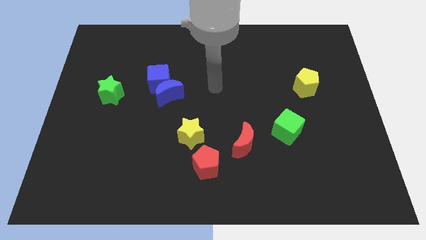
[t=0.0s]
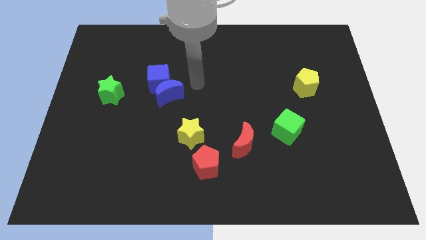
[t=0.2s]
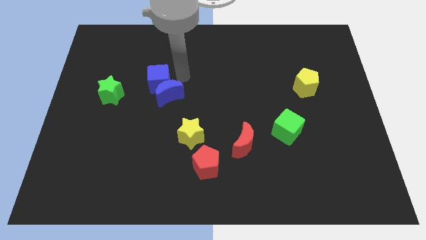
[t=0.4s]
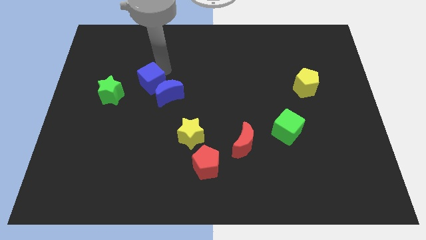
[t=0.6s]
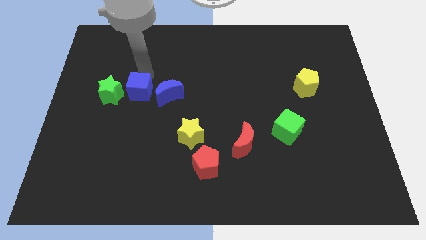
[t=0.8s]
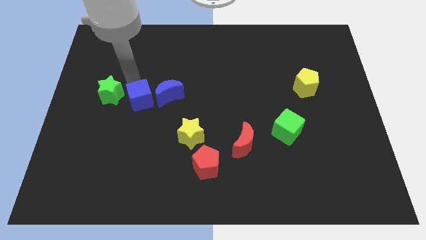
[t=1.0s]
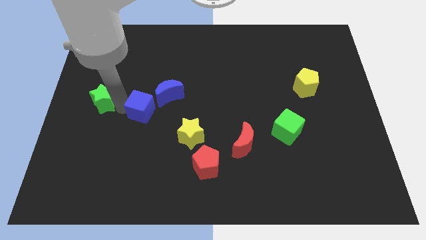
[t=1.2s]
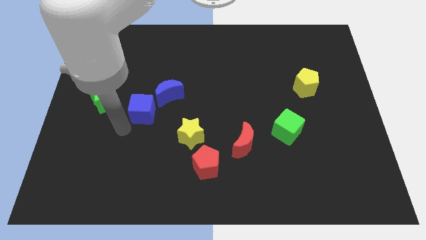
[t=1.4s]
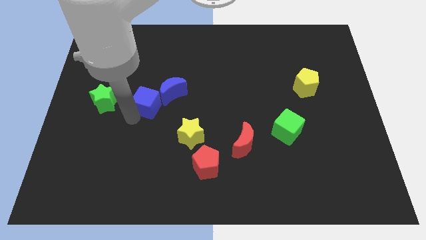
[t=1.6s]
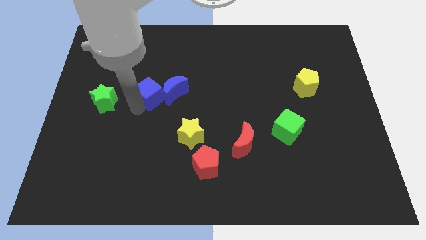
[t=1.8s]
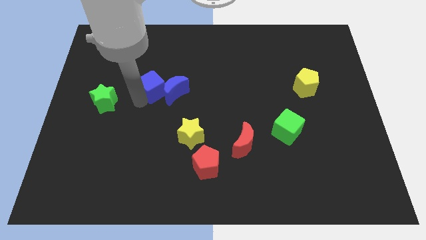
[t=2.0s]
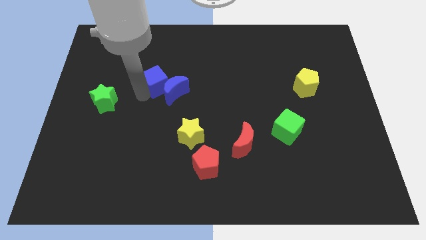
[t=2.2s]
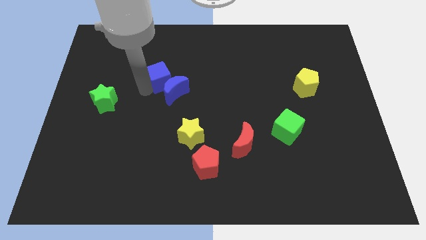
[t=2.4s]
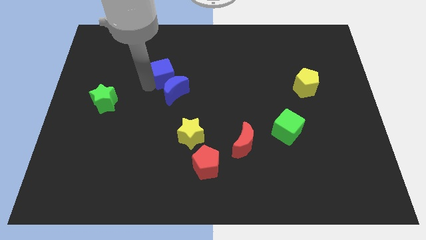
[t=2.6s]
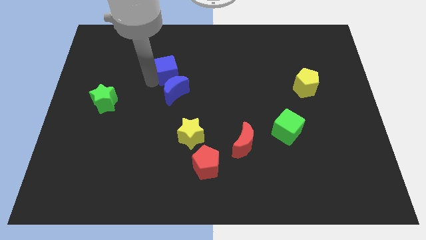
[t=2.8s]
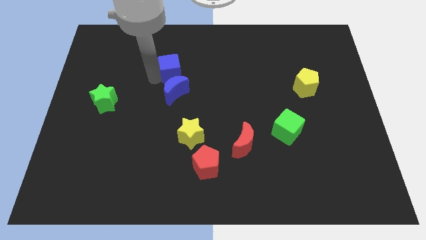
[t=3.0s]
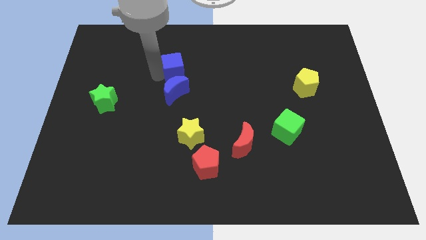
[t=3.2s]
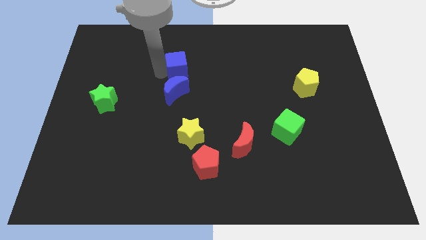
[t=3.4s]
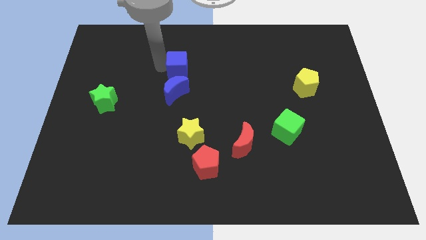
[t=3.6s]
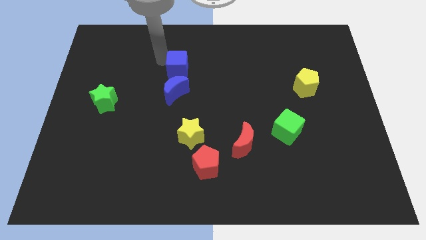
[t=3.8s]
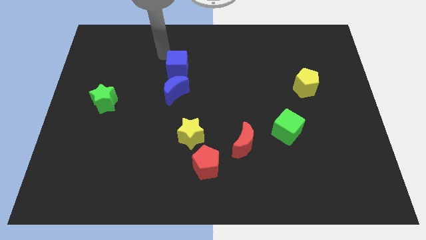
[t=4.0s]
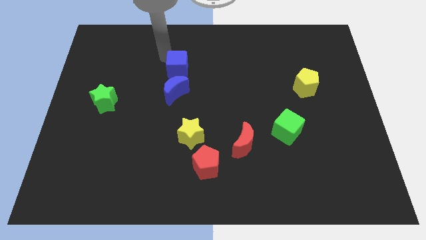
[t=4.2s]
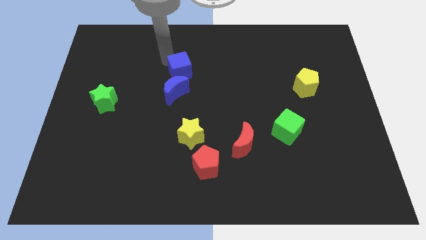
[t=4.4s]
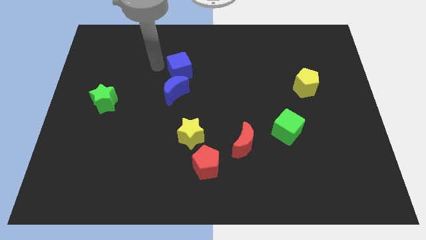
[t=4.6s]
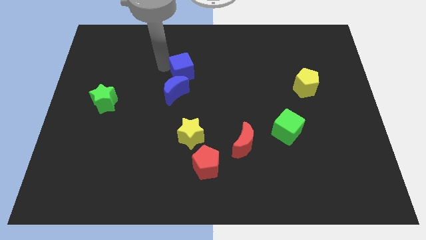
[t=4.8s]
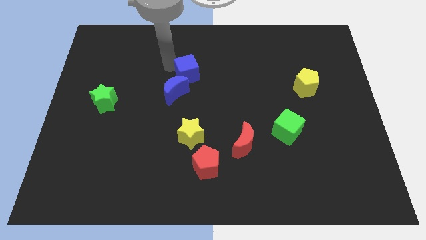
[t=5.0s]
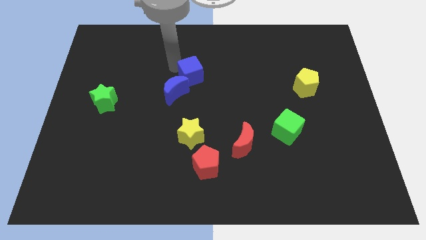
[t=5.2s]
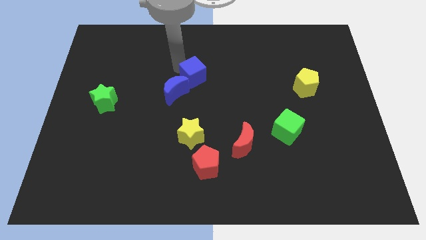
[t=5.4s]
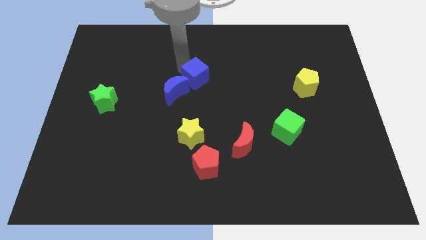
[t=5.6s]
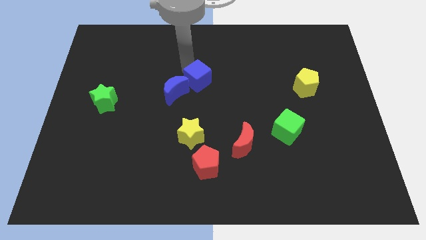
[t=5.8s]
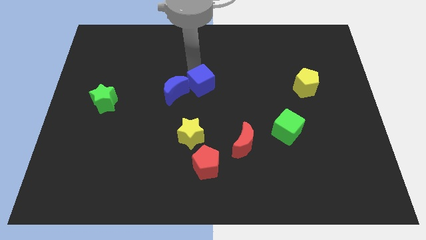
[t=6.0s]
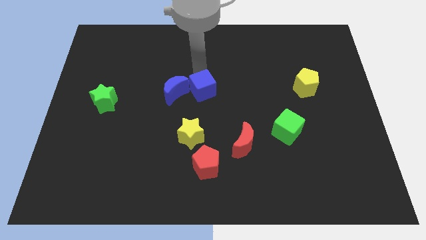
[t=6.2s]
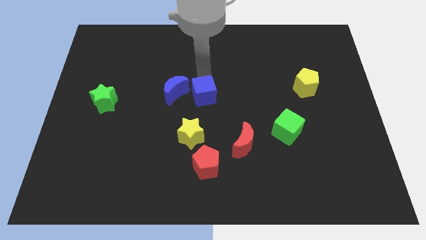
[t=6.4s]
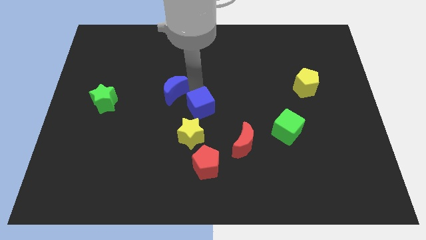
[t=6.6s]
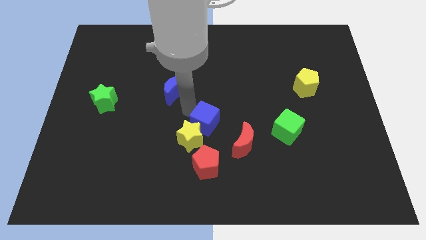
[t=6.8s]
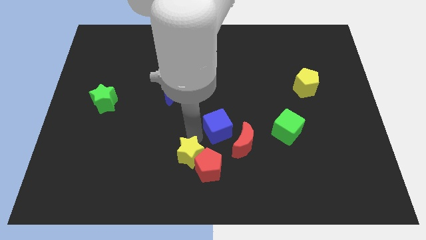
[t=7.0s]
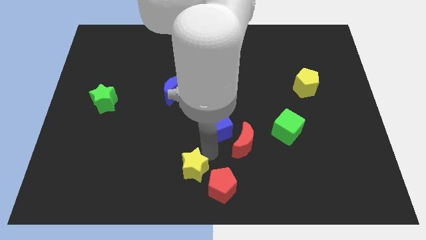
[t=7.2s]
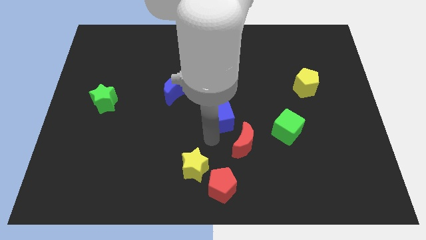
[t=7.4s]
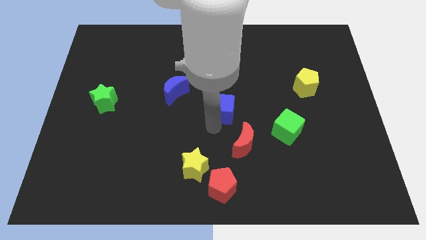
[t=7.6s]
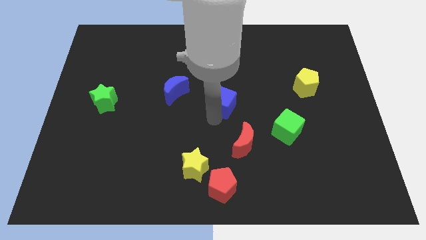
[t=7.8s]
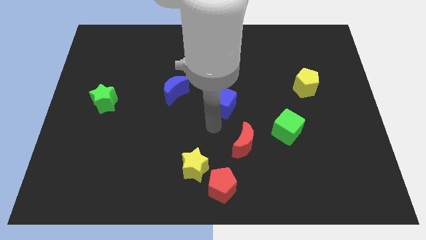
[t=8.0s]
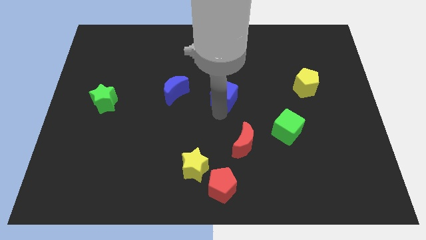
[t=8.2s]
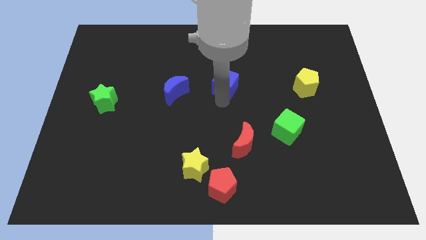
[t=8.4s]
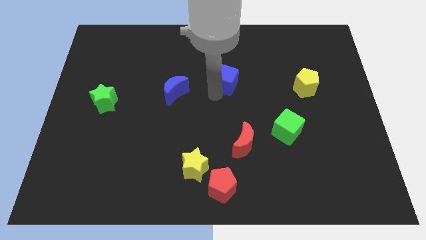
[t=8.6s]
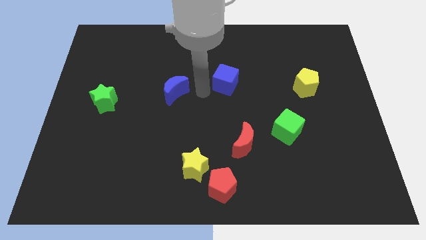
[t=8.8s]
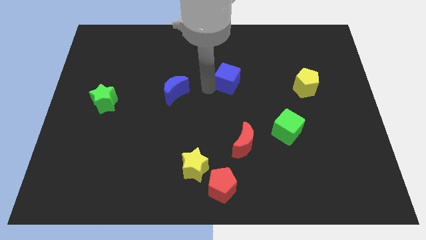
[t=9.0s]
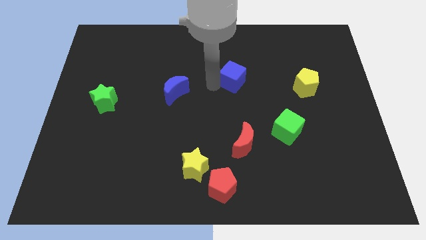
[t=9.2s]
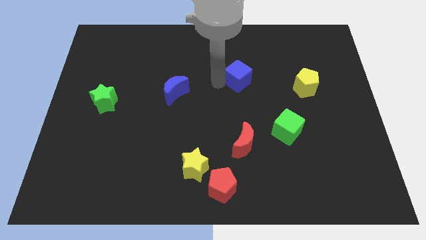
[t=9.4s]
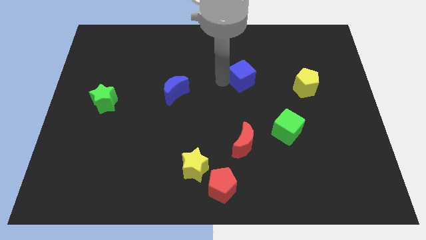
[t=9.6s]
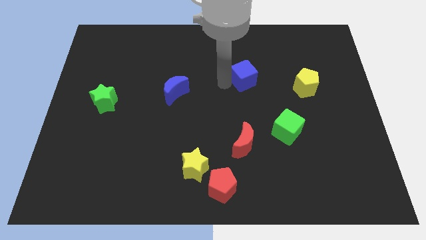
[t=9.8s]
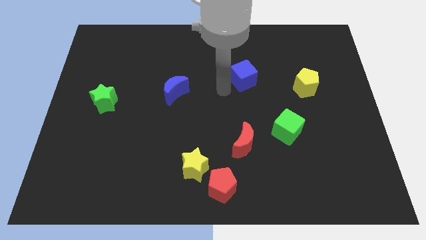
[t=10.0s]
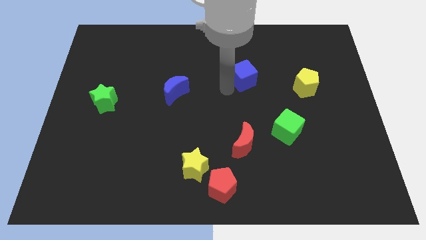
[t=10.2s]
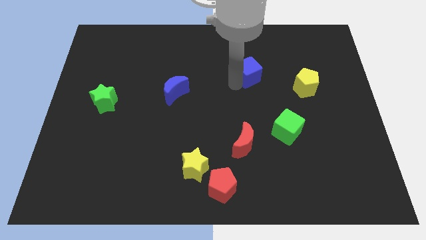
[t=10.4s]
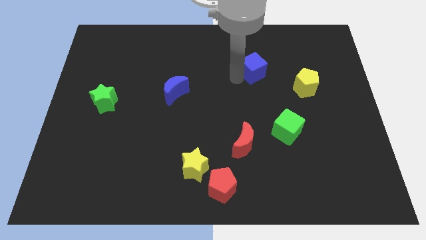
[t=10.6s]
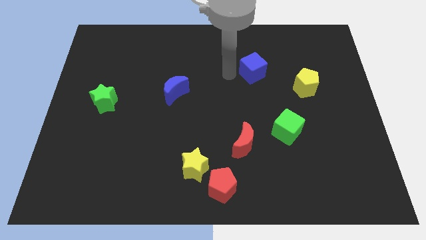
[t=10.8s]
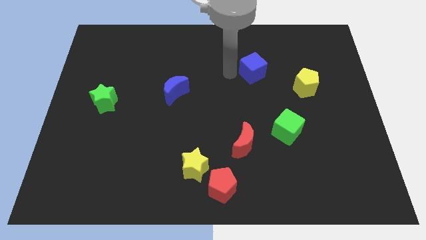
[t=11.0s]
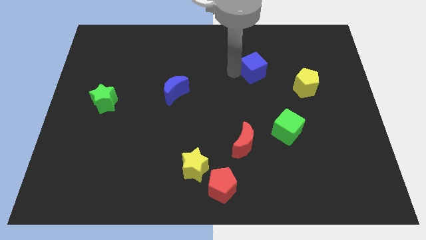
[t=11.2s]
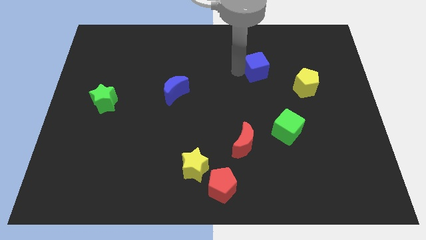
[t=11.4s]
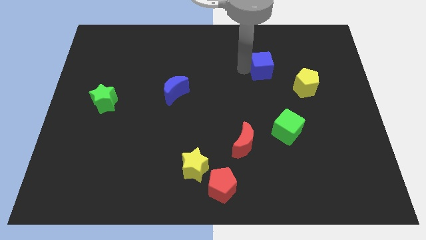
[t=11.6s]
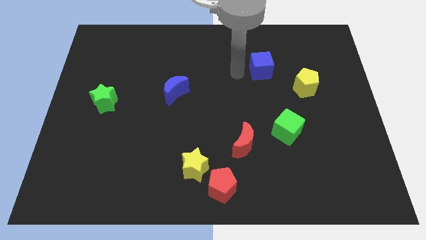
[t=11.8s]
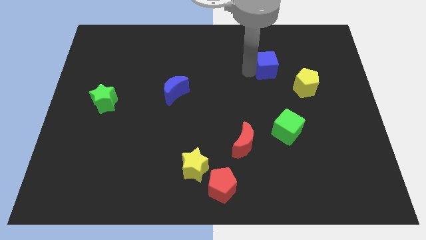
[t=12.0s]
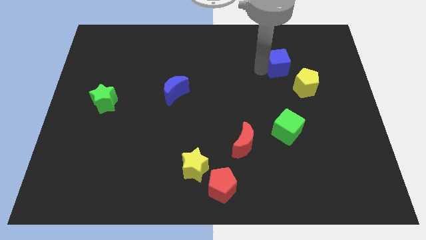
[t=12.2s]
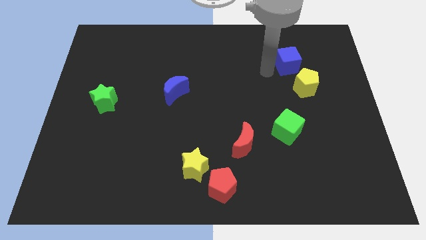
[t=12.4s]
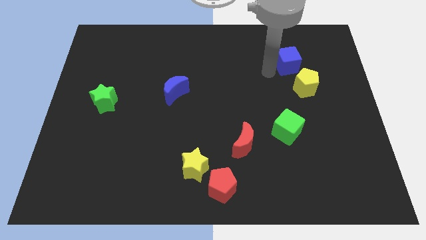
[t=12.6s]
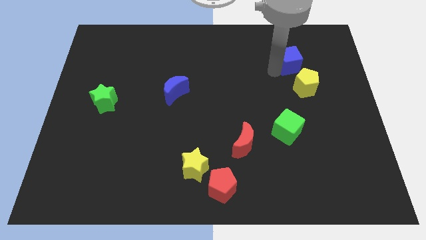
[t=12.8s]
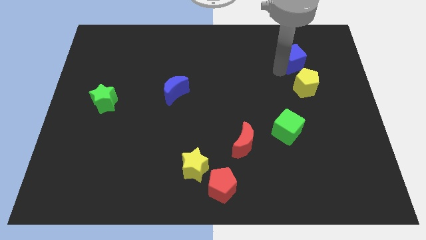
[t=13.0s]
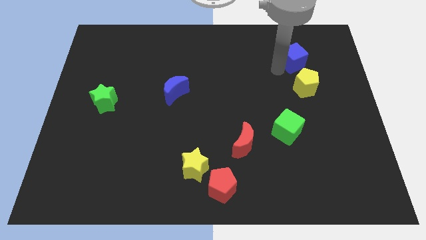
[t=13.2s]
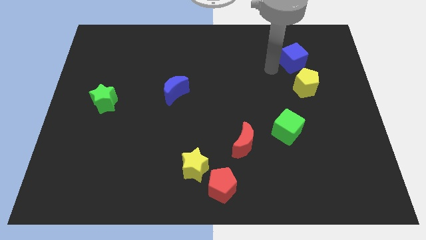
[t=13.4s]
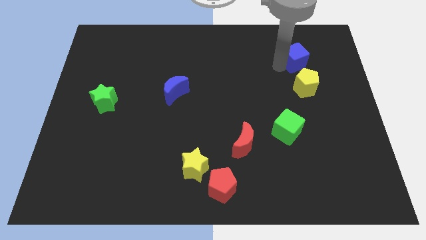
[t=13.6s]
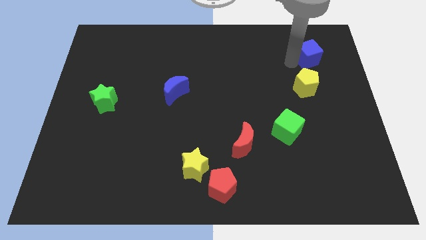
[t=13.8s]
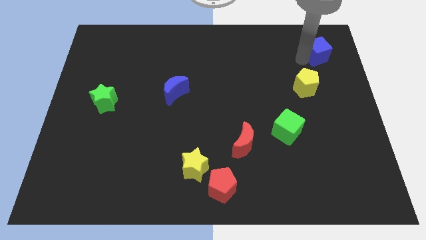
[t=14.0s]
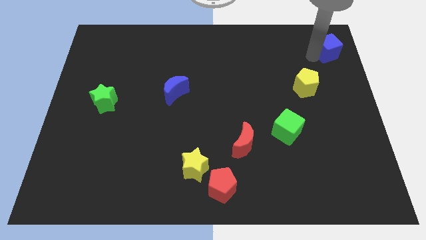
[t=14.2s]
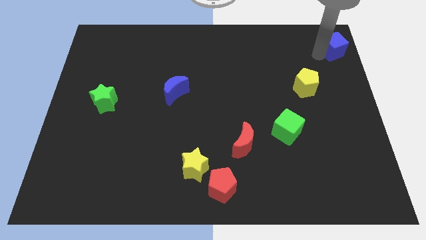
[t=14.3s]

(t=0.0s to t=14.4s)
slide the blue cube to the upper right corner
